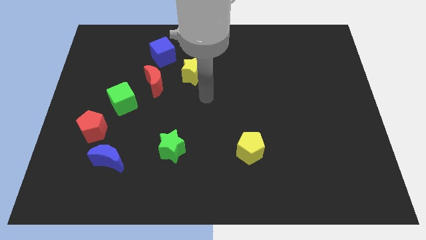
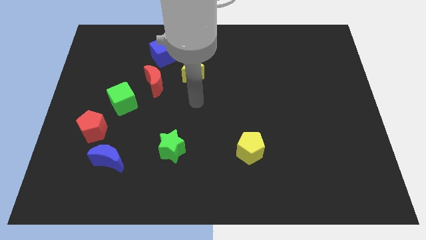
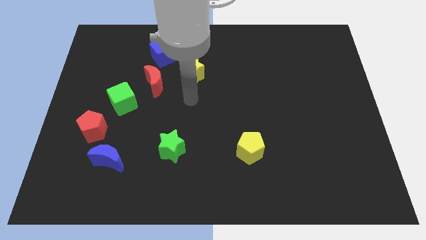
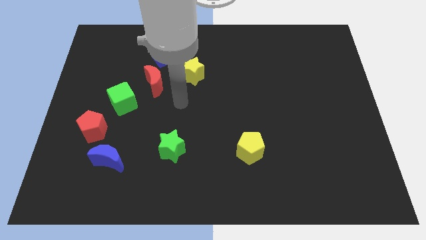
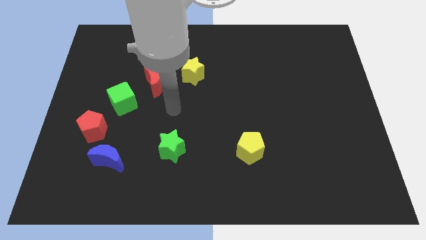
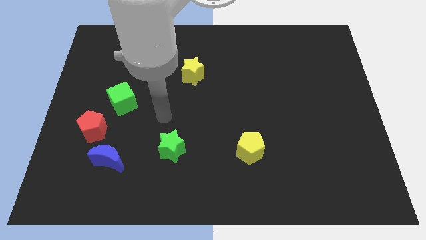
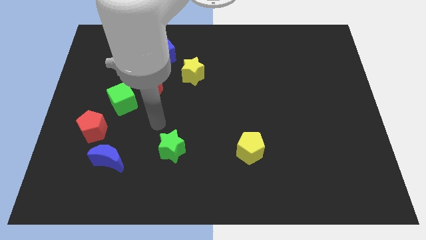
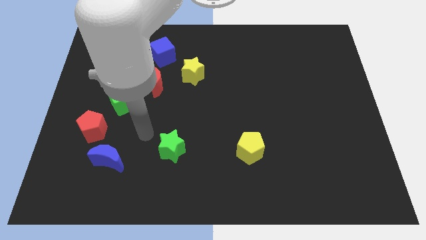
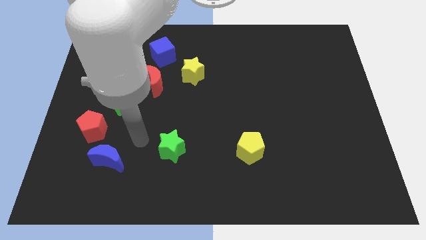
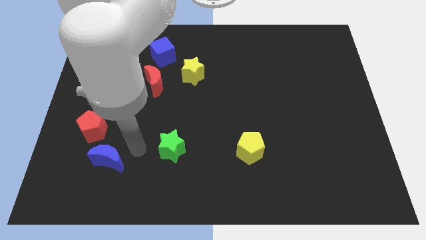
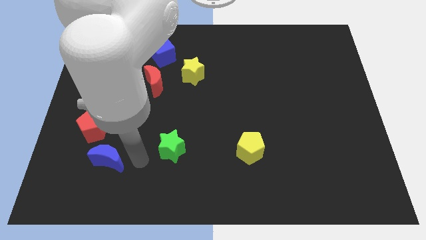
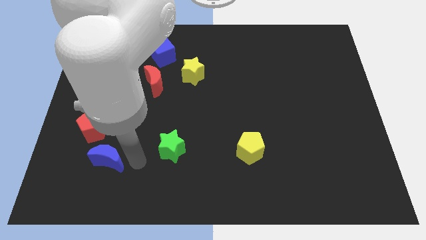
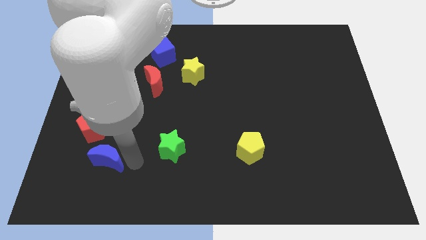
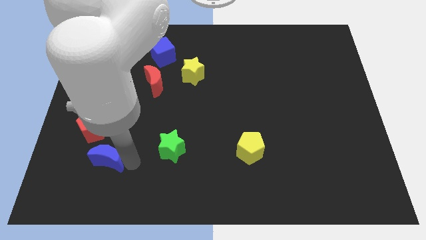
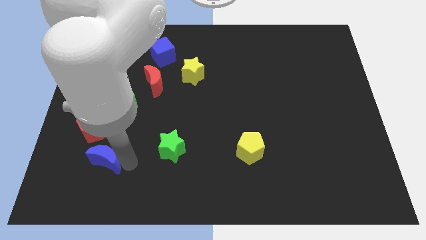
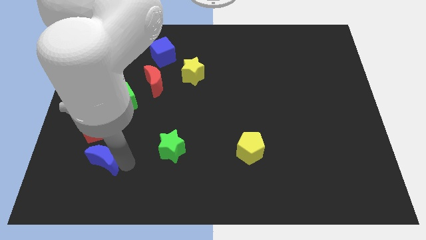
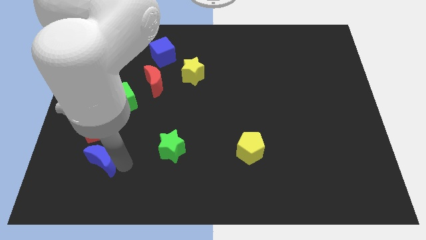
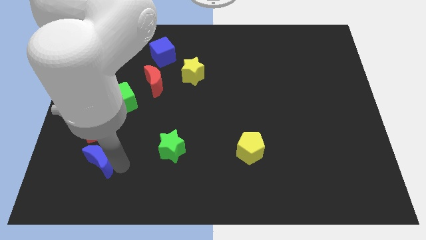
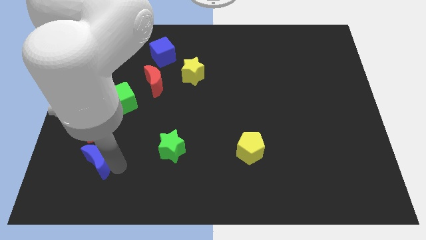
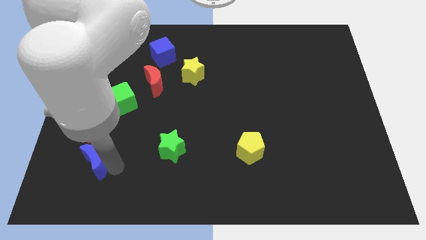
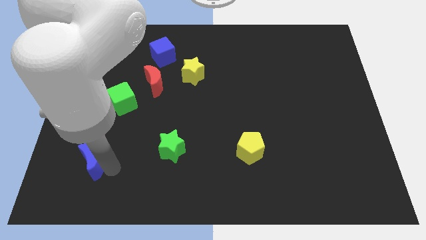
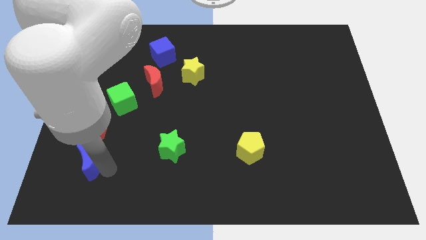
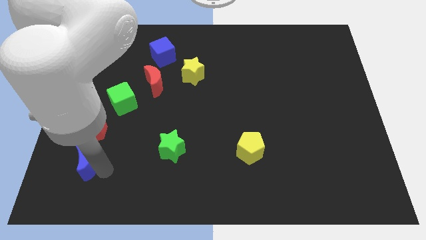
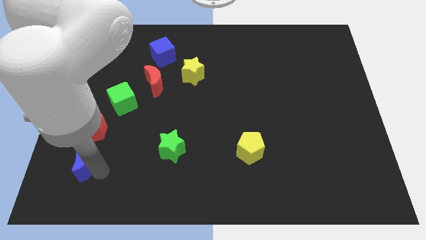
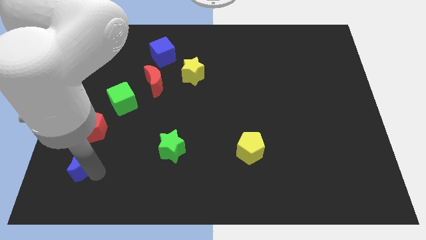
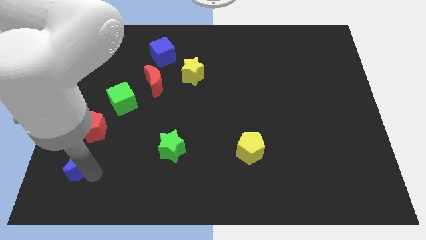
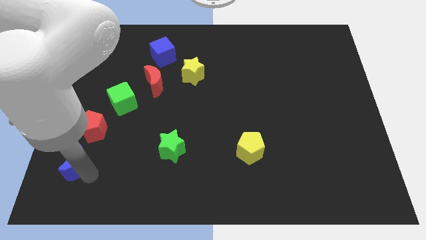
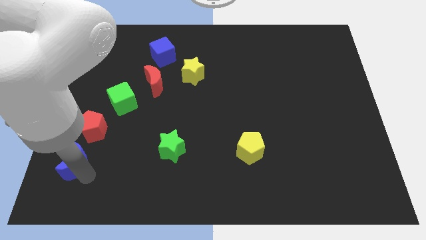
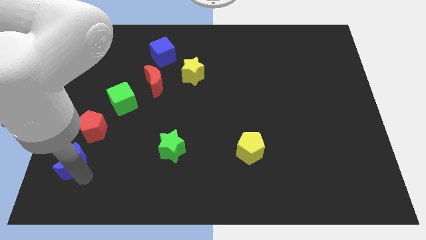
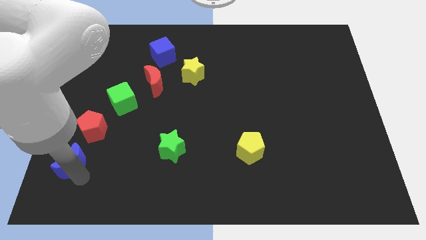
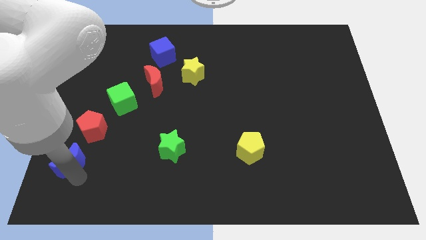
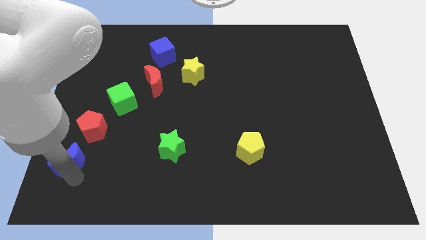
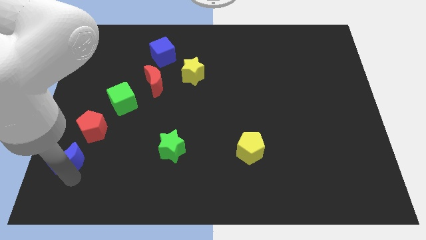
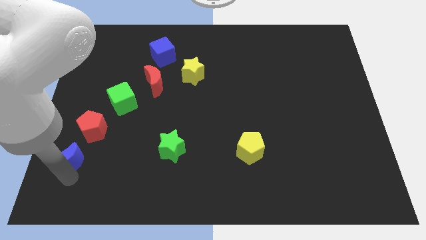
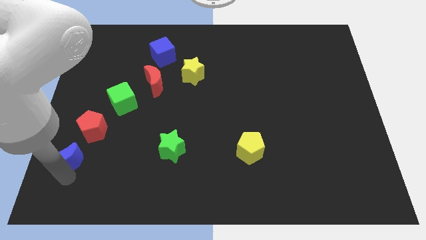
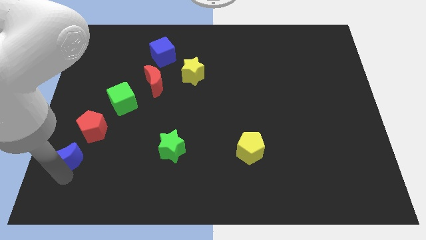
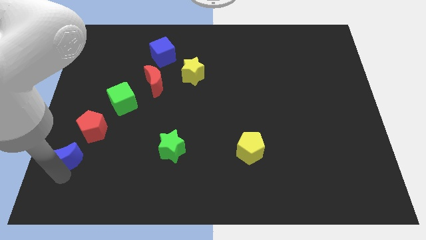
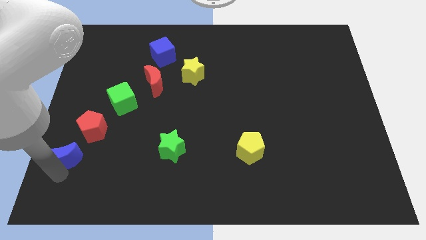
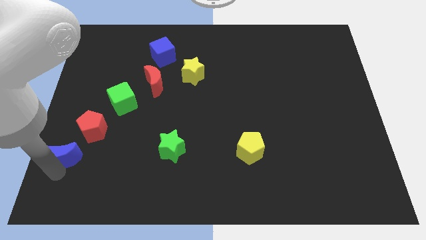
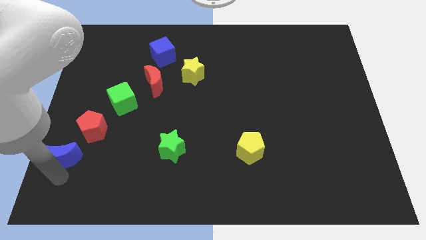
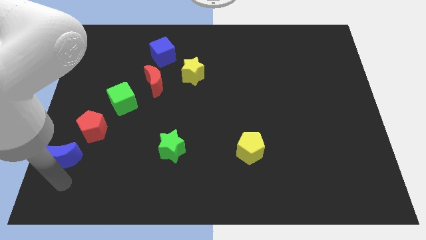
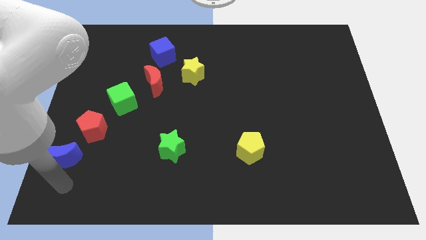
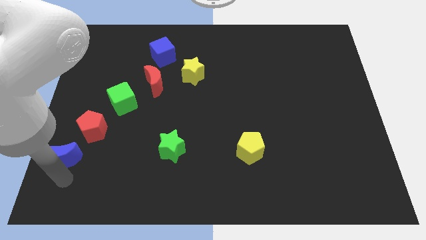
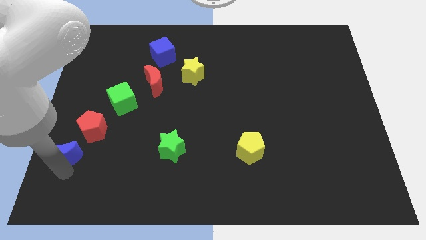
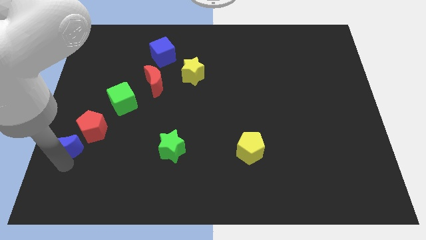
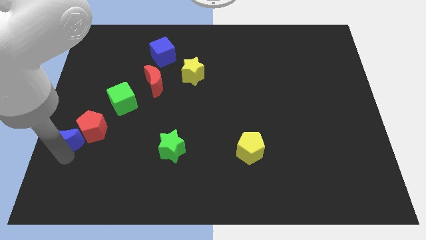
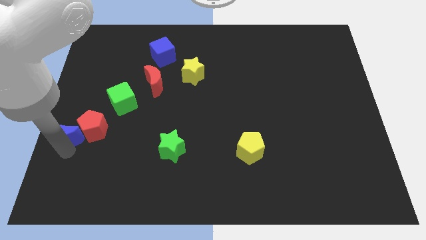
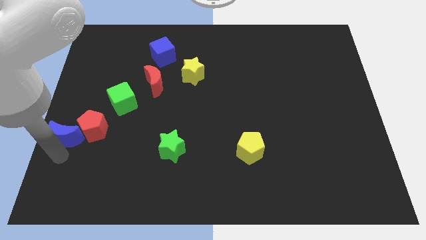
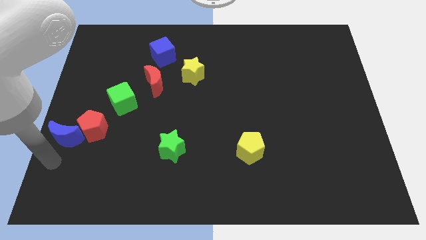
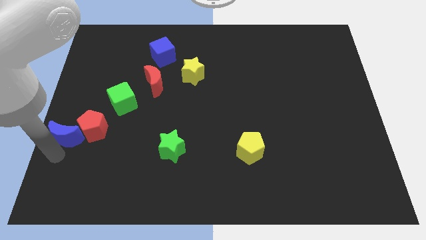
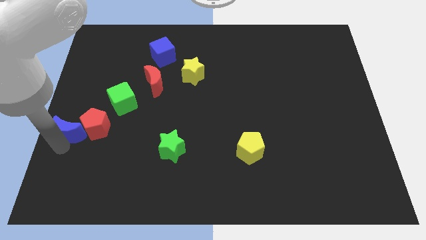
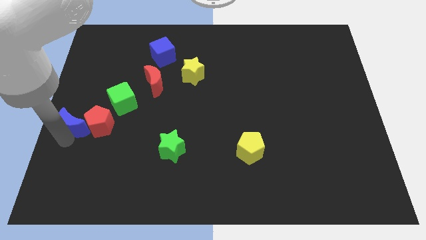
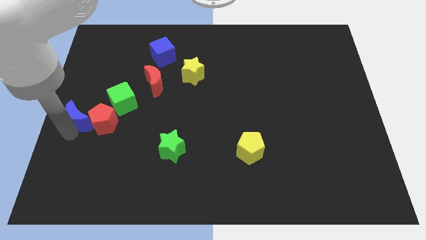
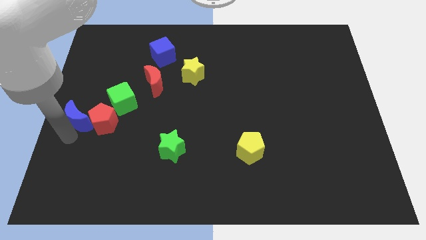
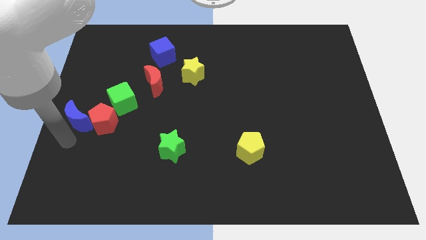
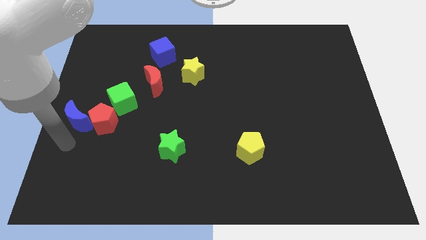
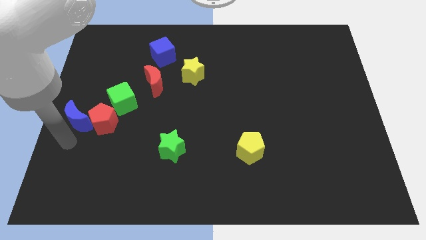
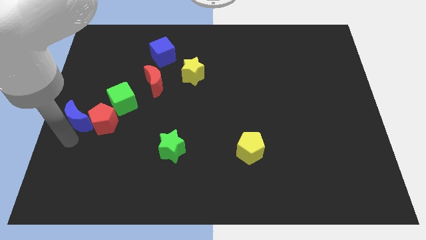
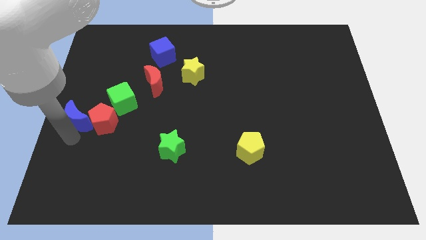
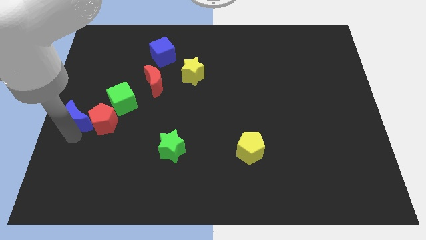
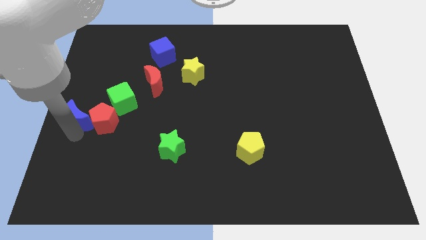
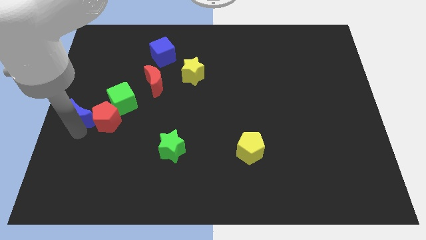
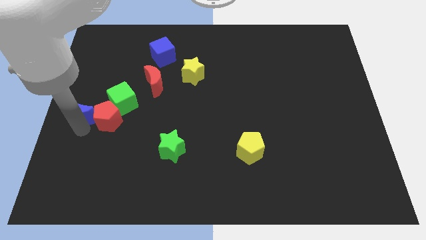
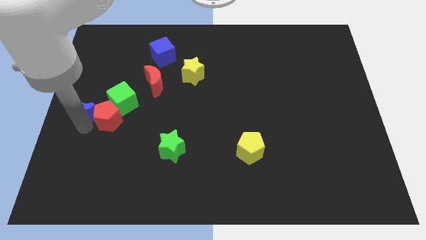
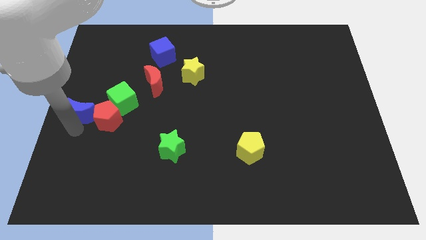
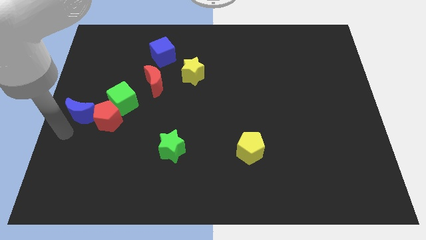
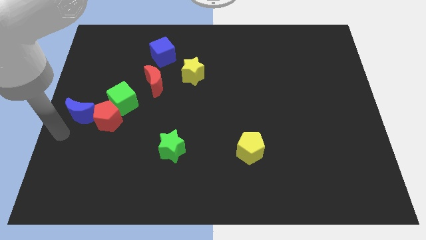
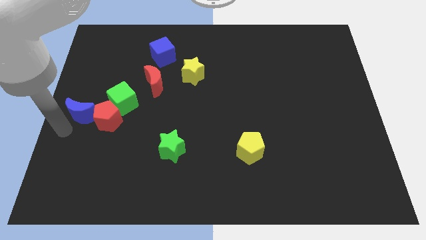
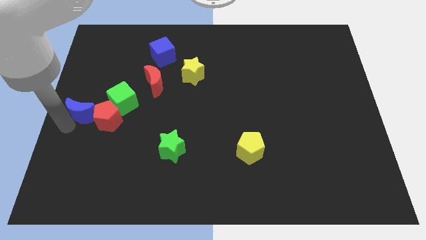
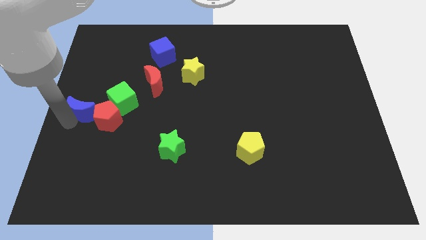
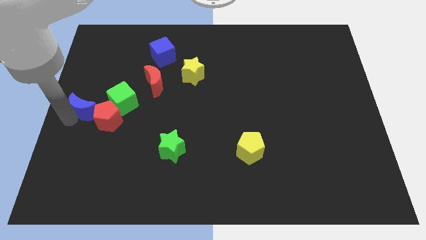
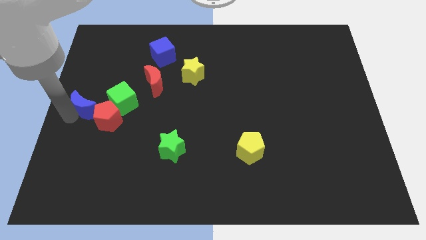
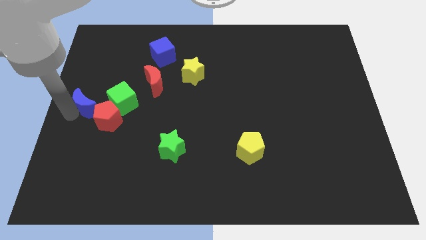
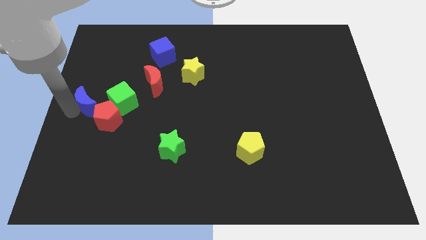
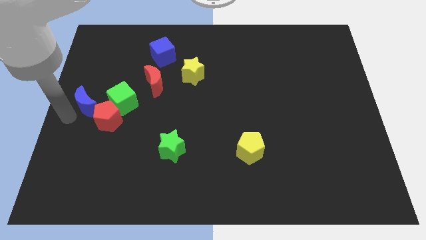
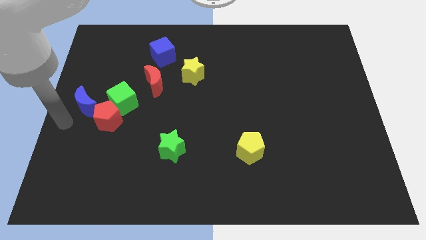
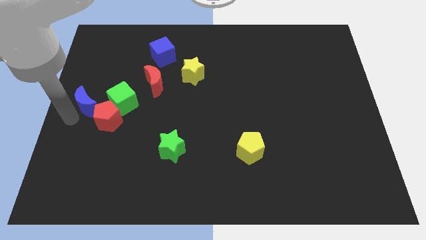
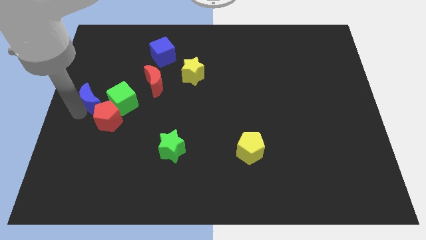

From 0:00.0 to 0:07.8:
push the blue moon above the red pentagon

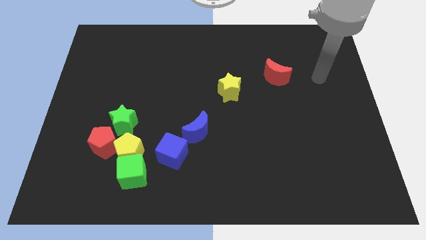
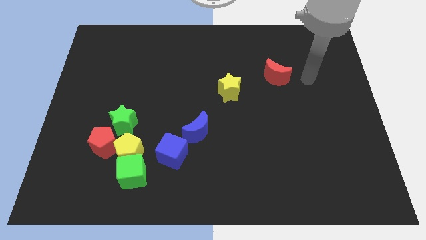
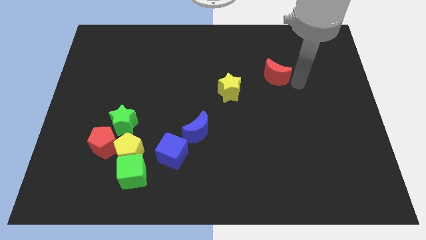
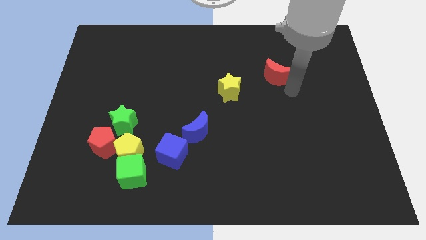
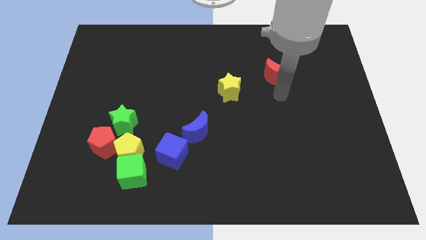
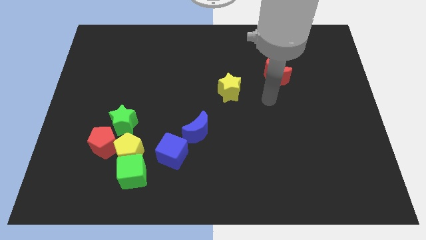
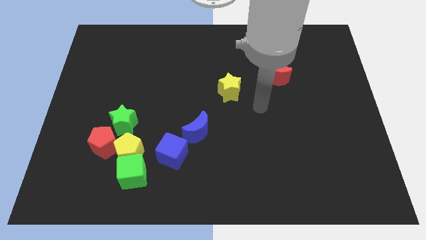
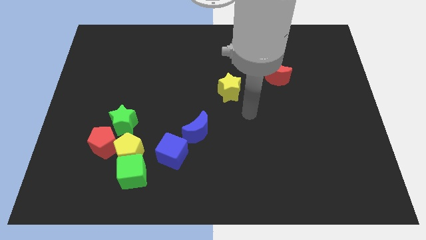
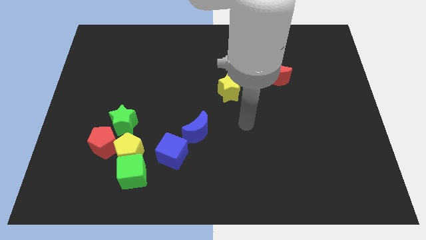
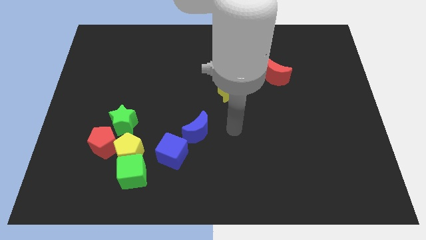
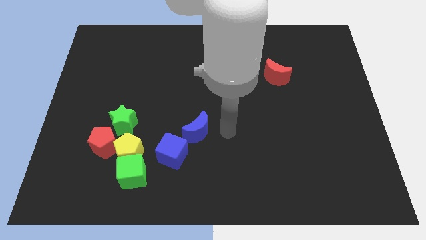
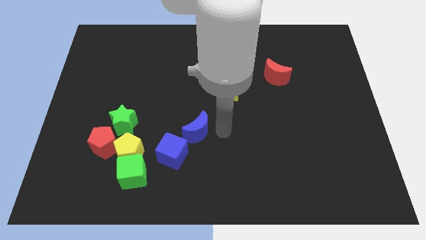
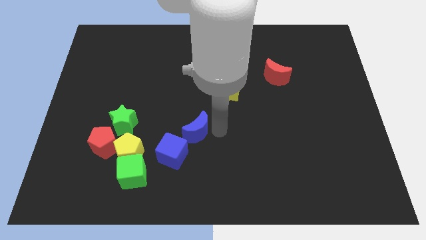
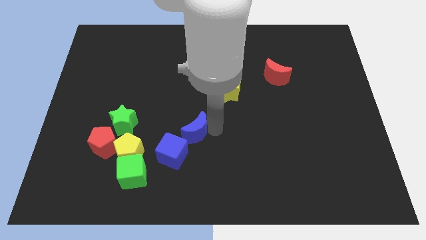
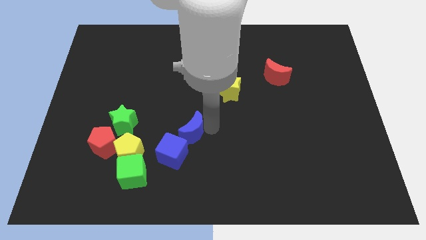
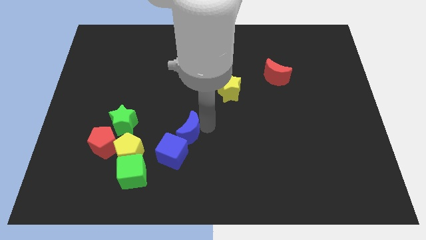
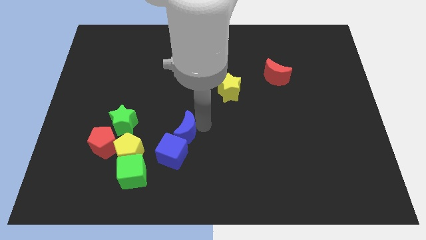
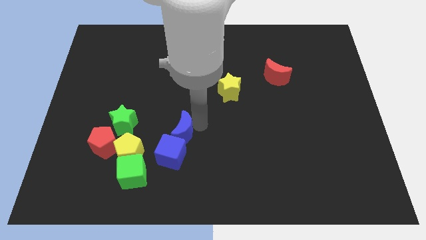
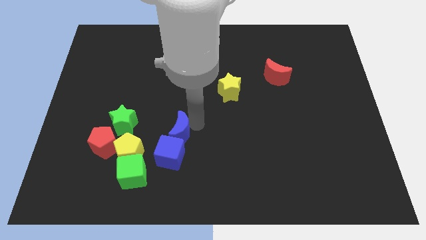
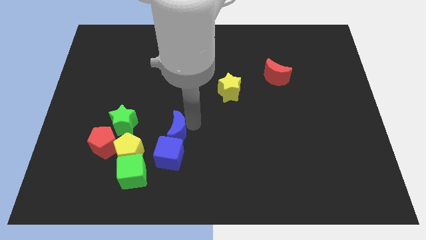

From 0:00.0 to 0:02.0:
push the blue moon to the top right side of the yellow pentagon
